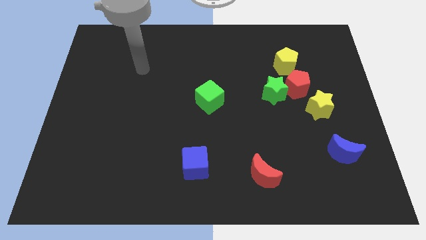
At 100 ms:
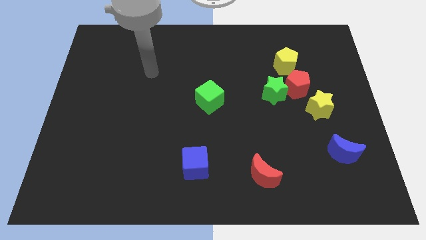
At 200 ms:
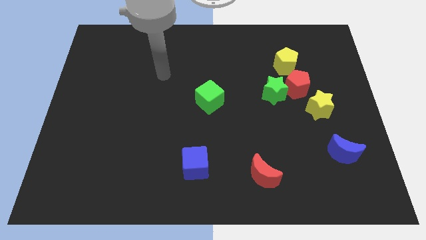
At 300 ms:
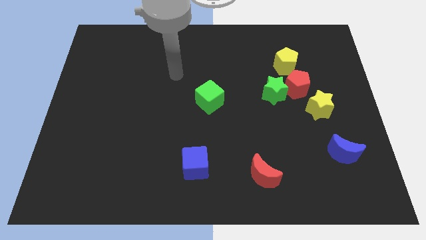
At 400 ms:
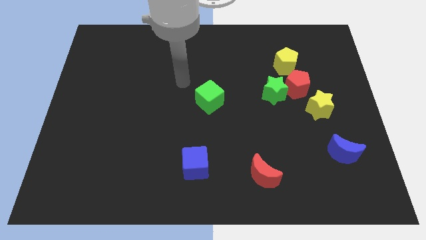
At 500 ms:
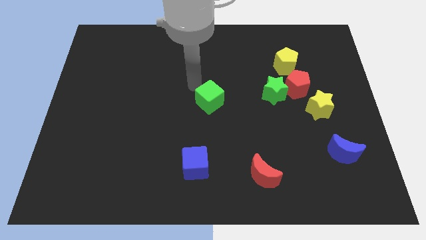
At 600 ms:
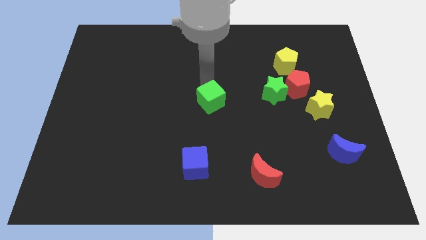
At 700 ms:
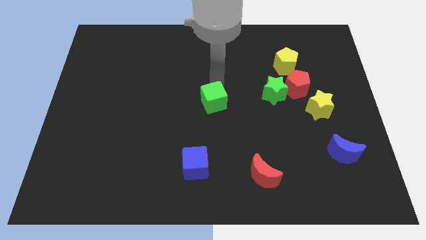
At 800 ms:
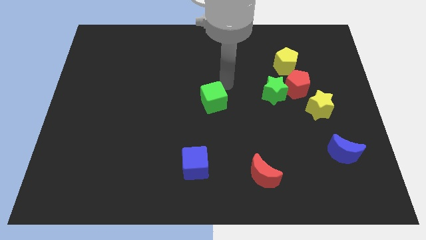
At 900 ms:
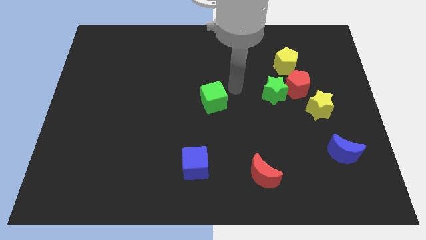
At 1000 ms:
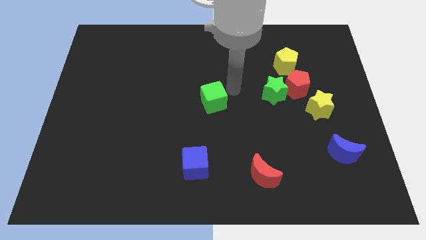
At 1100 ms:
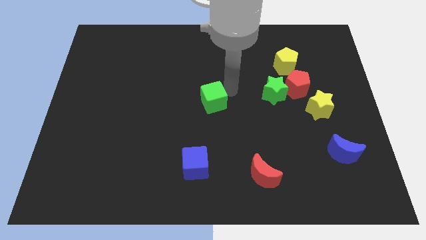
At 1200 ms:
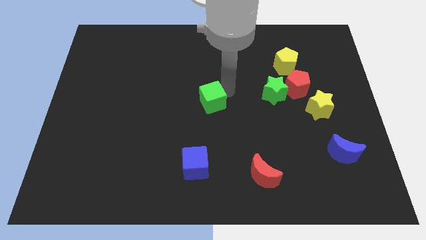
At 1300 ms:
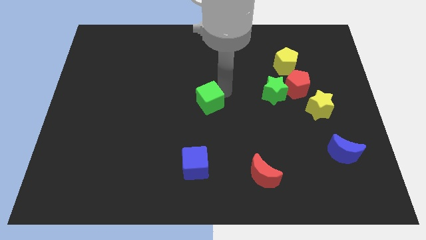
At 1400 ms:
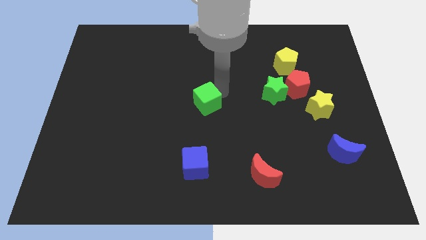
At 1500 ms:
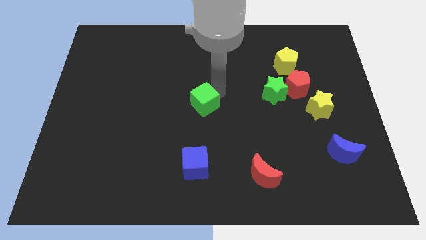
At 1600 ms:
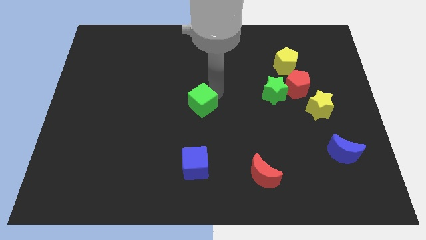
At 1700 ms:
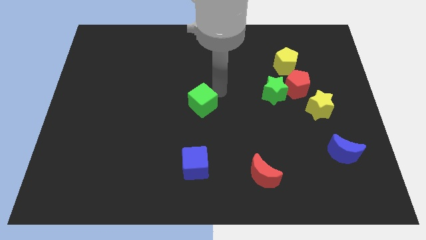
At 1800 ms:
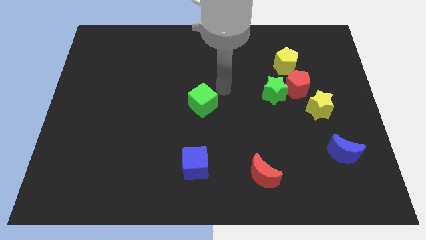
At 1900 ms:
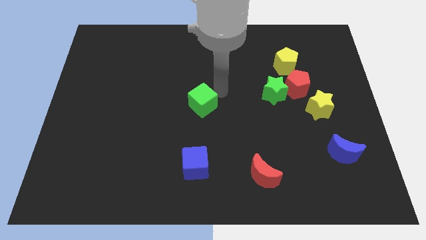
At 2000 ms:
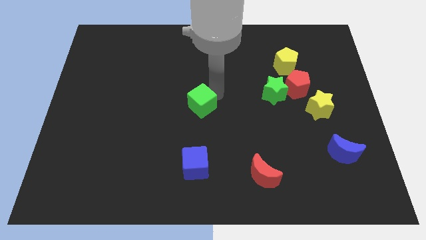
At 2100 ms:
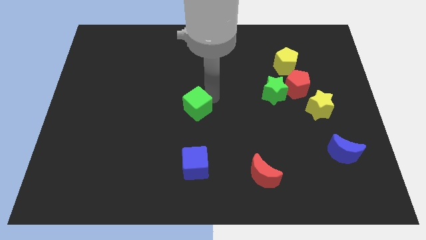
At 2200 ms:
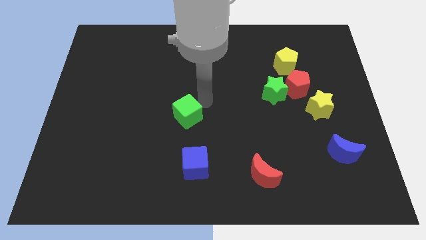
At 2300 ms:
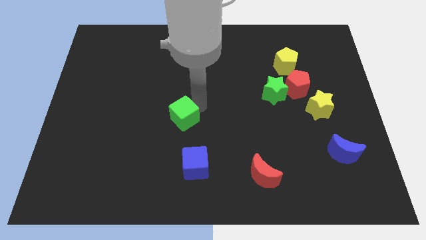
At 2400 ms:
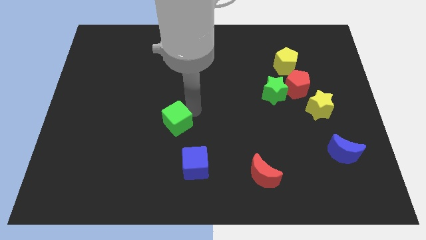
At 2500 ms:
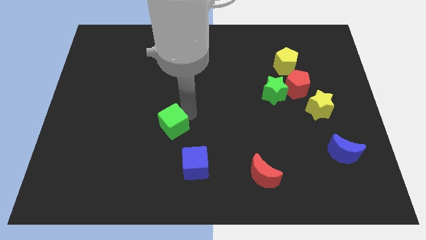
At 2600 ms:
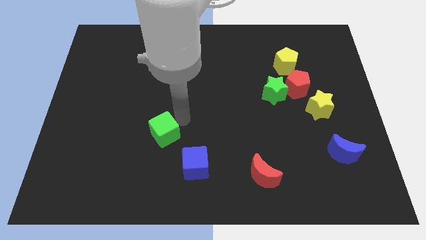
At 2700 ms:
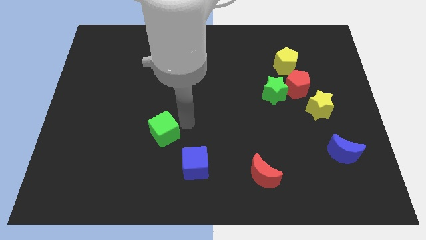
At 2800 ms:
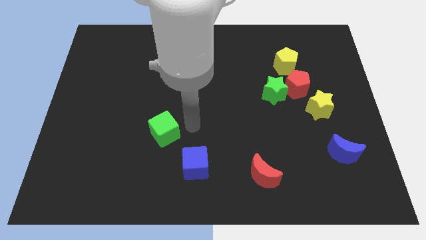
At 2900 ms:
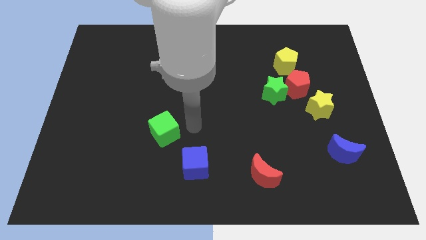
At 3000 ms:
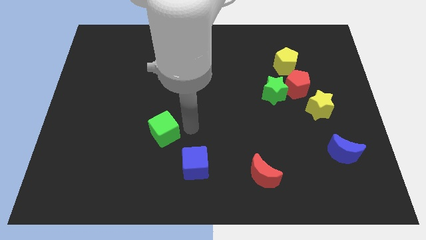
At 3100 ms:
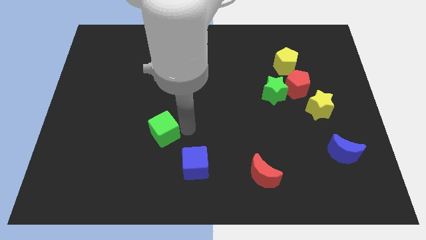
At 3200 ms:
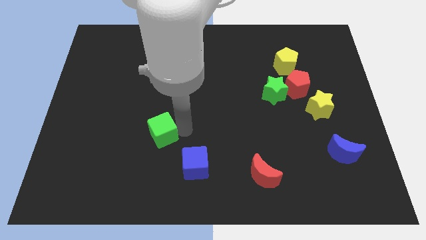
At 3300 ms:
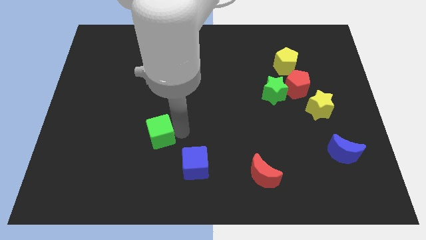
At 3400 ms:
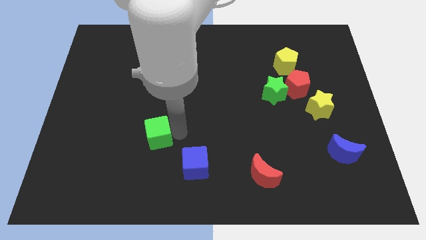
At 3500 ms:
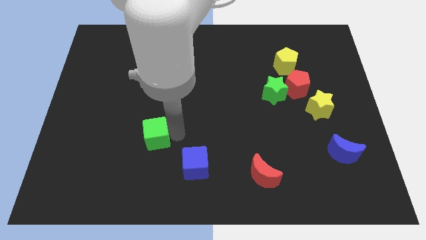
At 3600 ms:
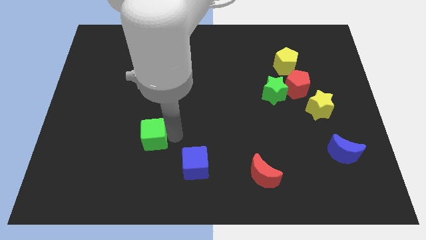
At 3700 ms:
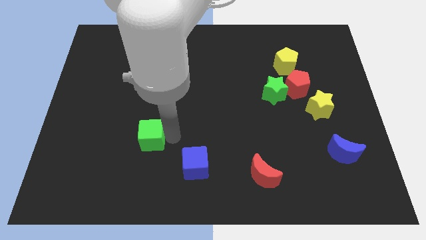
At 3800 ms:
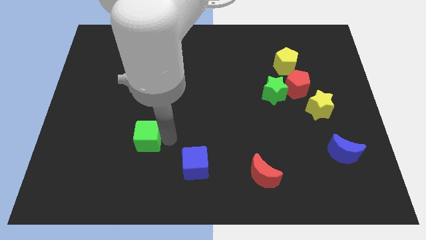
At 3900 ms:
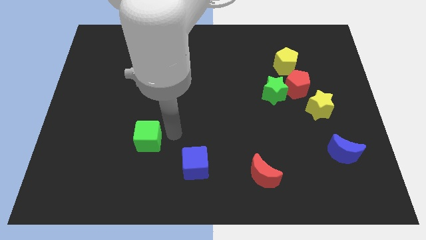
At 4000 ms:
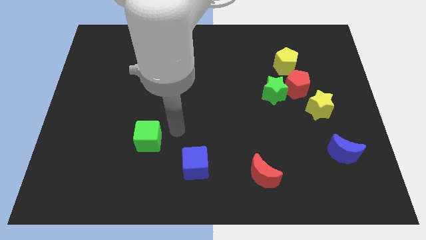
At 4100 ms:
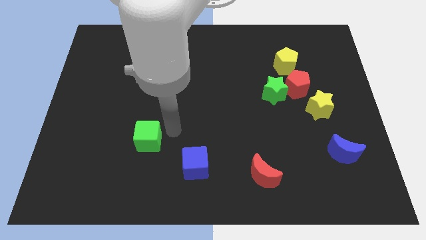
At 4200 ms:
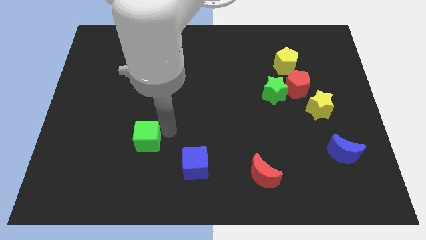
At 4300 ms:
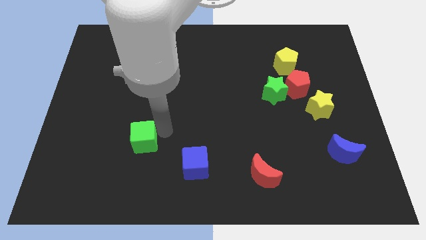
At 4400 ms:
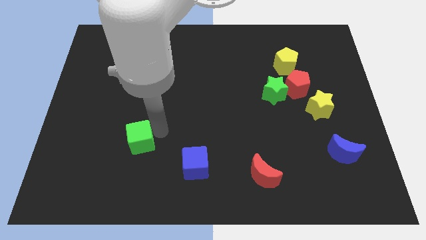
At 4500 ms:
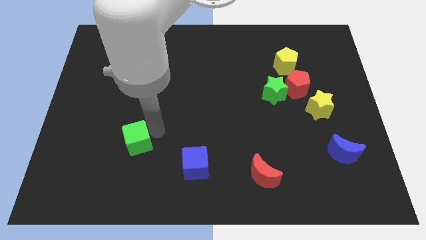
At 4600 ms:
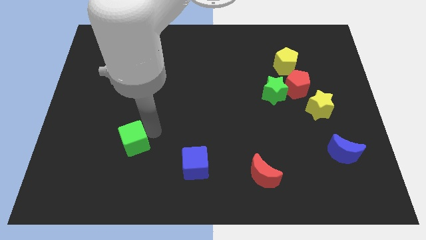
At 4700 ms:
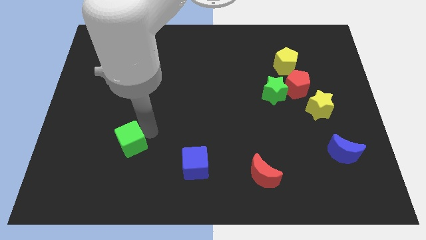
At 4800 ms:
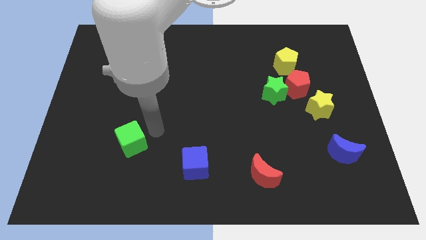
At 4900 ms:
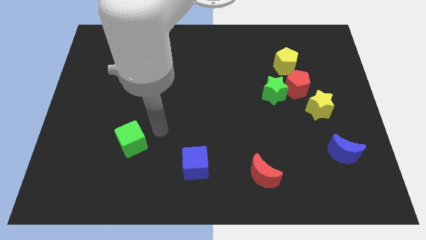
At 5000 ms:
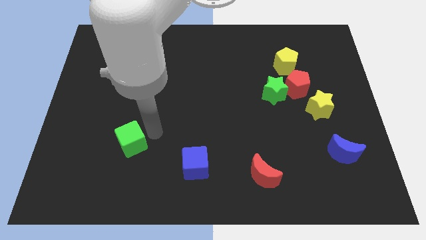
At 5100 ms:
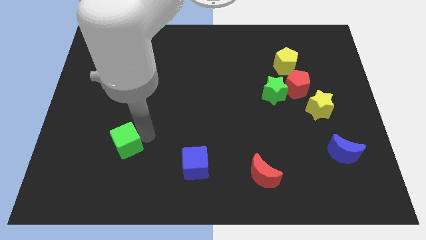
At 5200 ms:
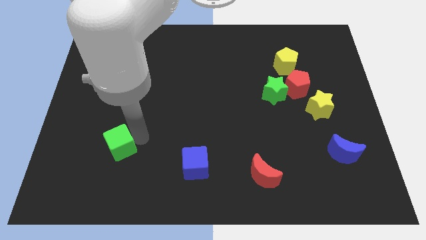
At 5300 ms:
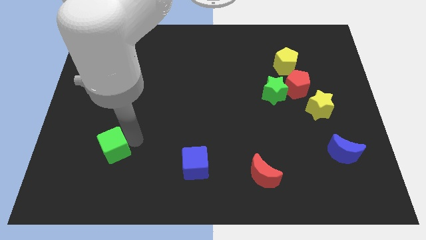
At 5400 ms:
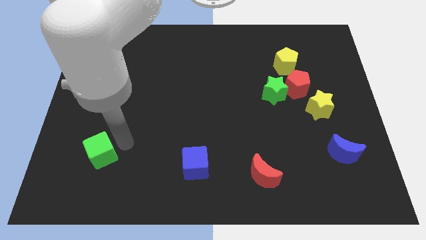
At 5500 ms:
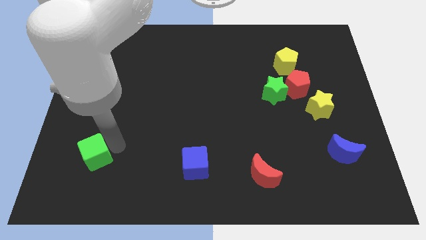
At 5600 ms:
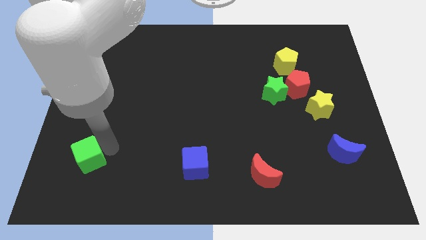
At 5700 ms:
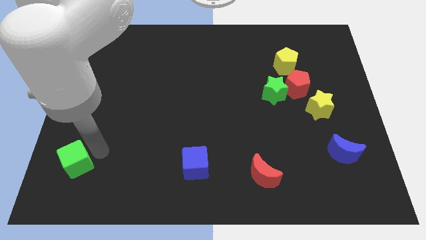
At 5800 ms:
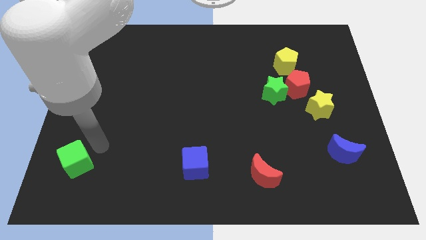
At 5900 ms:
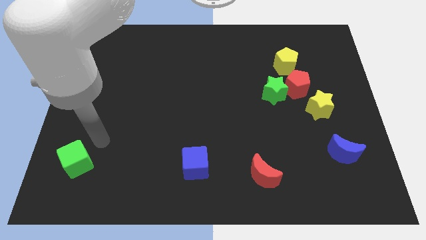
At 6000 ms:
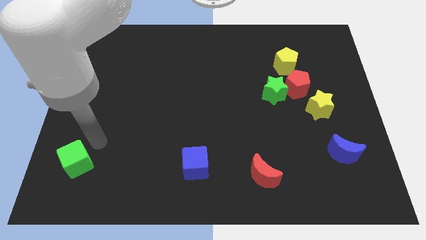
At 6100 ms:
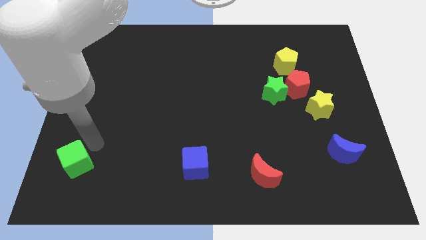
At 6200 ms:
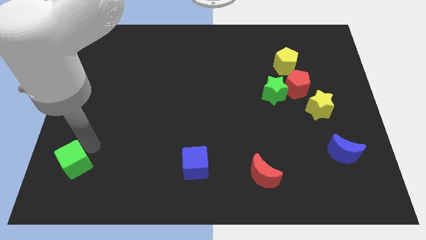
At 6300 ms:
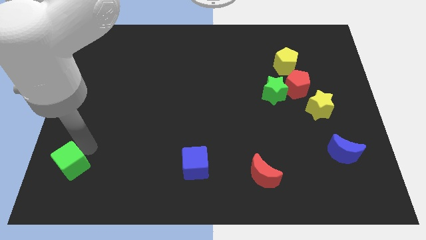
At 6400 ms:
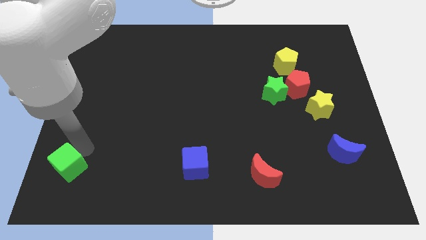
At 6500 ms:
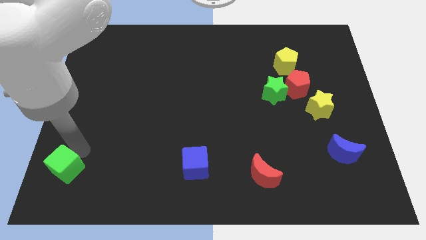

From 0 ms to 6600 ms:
move the green cube to the lower left corner

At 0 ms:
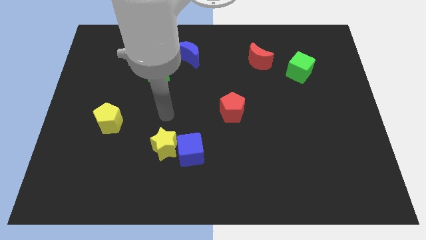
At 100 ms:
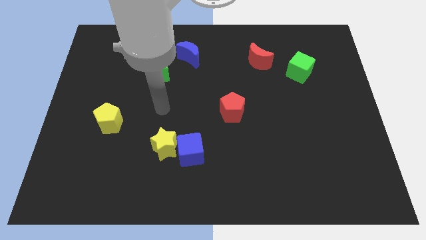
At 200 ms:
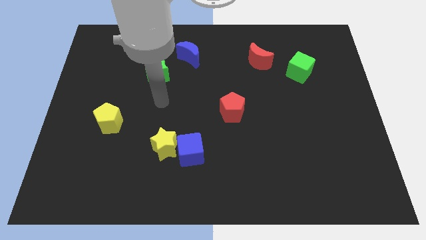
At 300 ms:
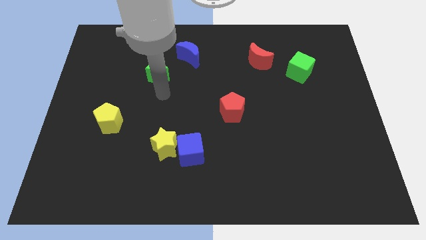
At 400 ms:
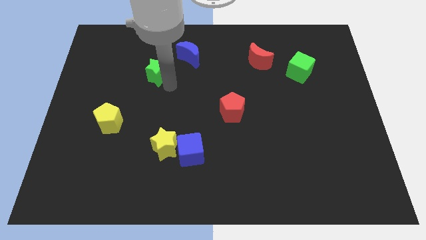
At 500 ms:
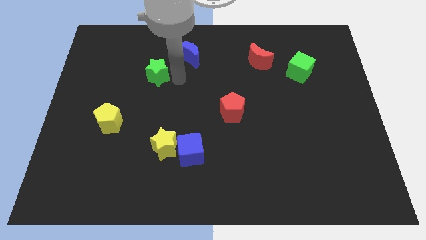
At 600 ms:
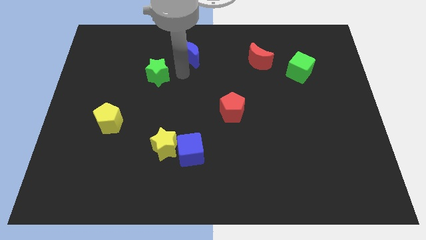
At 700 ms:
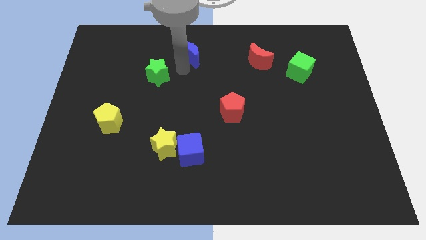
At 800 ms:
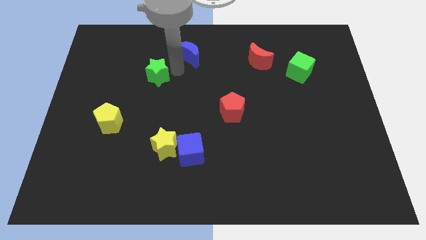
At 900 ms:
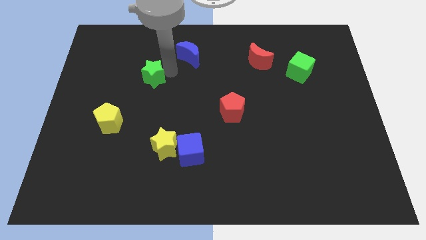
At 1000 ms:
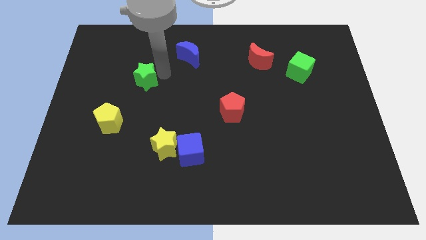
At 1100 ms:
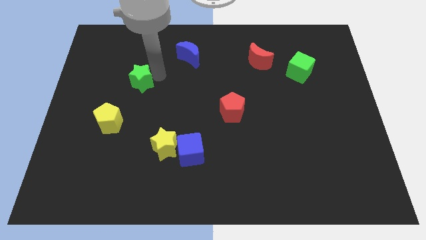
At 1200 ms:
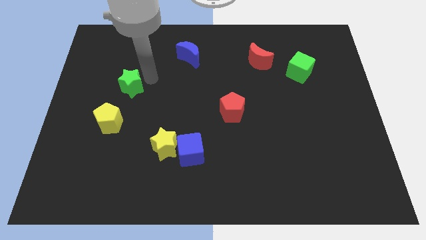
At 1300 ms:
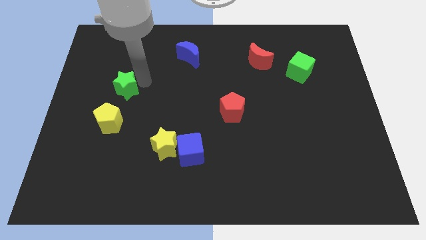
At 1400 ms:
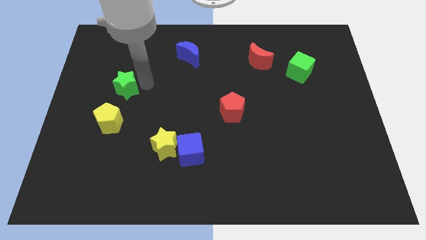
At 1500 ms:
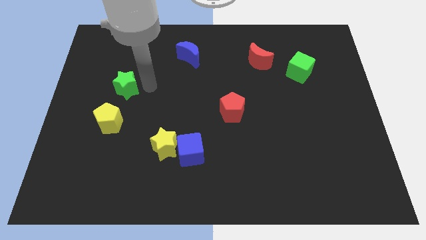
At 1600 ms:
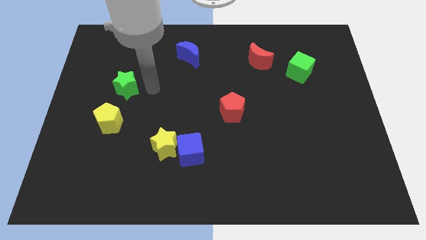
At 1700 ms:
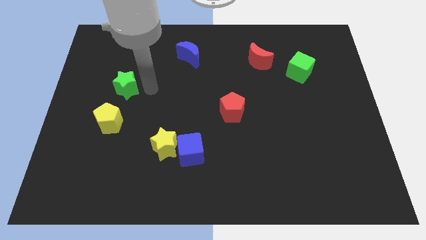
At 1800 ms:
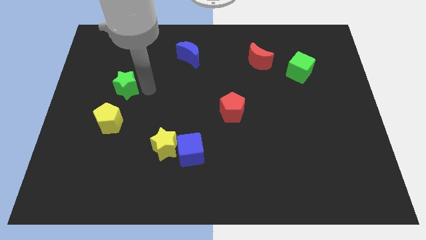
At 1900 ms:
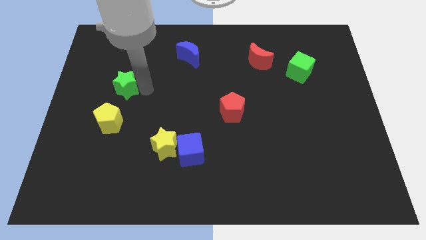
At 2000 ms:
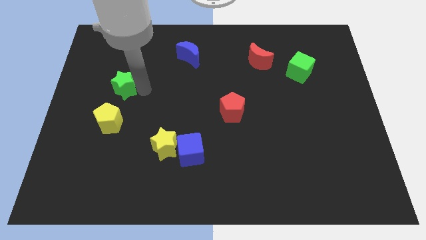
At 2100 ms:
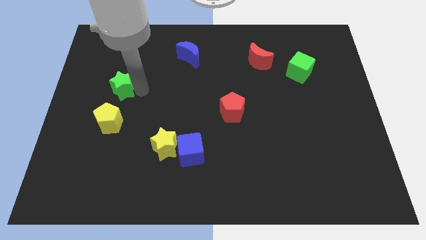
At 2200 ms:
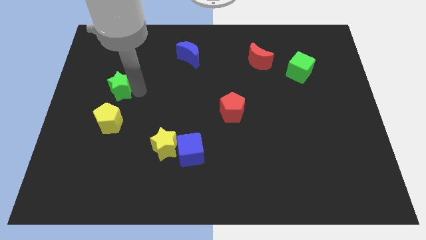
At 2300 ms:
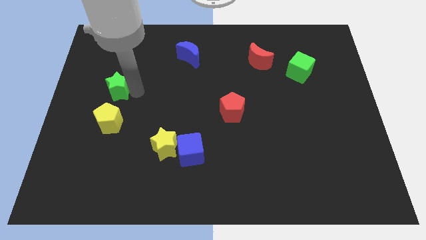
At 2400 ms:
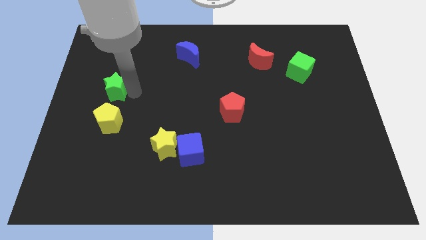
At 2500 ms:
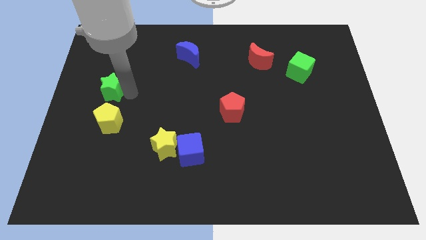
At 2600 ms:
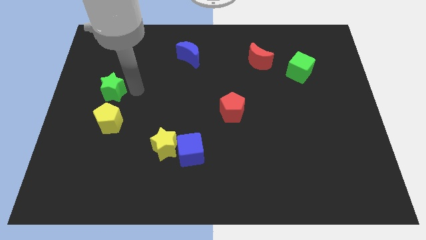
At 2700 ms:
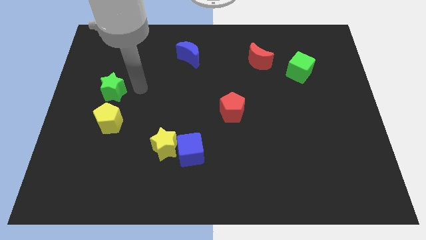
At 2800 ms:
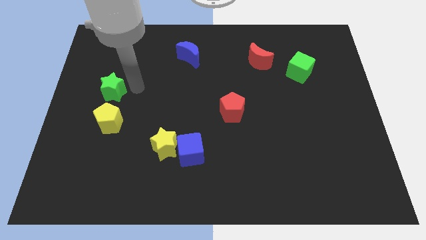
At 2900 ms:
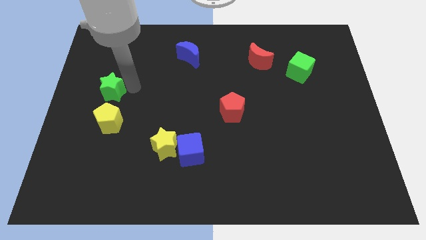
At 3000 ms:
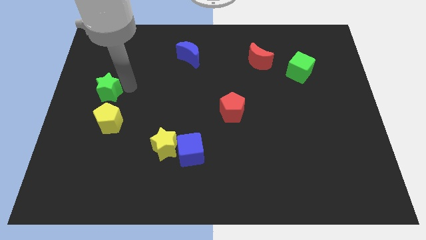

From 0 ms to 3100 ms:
slide the green star to the left side of the board
